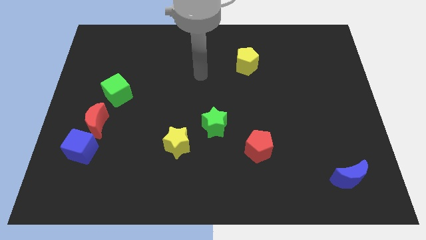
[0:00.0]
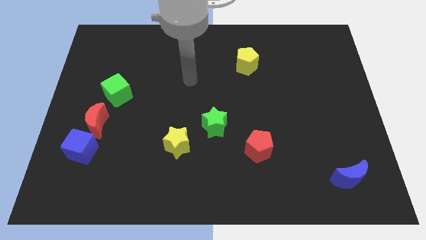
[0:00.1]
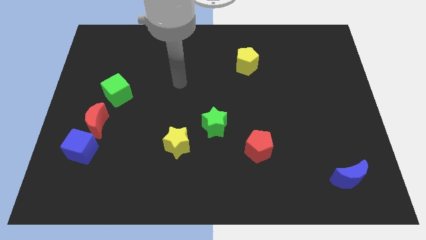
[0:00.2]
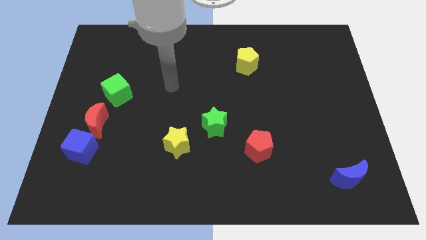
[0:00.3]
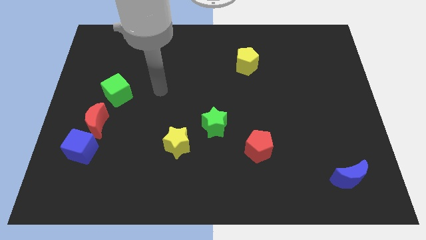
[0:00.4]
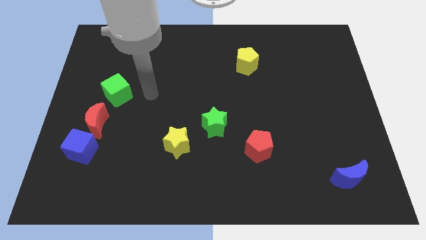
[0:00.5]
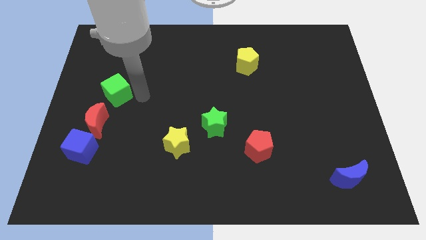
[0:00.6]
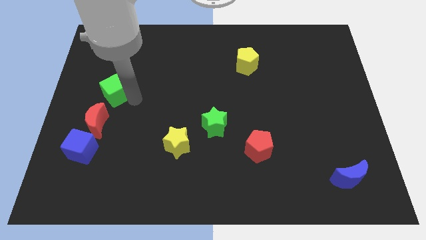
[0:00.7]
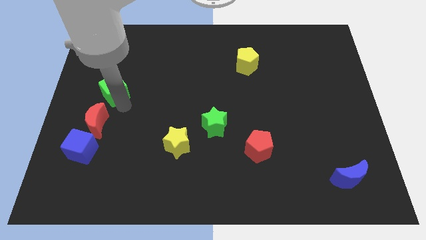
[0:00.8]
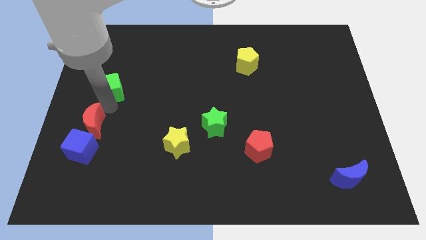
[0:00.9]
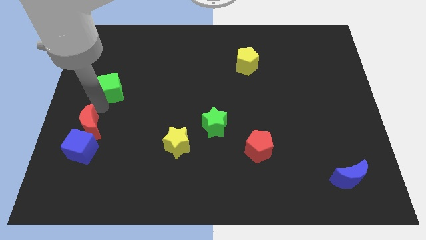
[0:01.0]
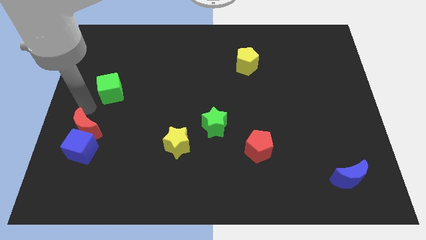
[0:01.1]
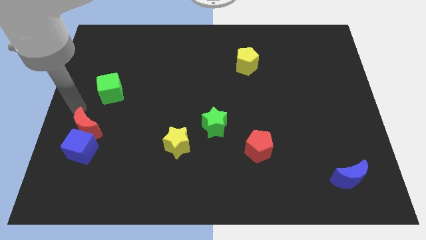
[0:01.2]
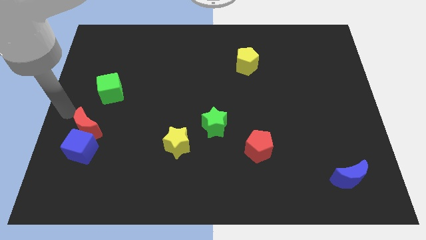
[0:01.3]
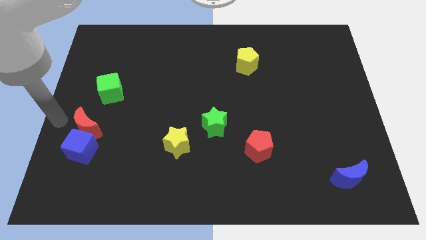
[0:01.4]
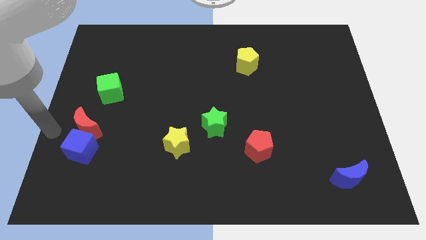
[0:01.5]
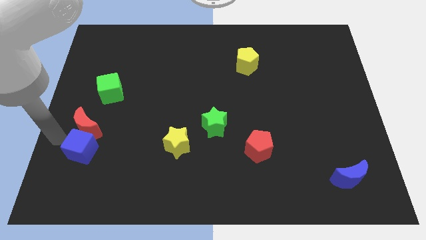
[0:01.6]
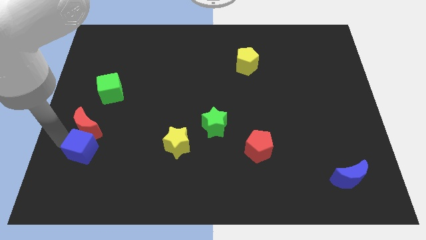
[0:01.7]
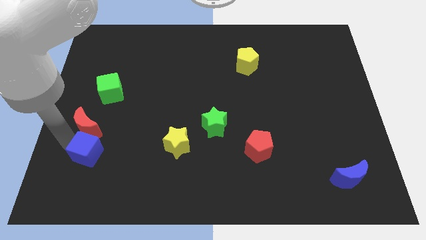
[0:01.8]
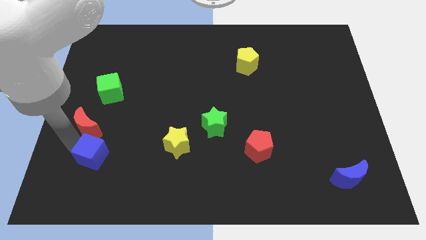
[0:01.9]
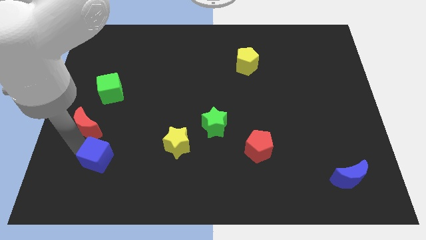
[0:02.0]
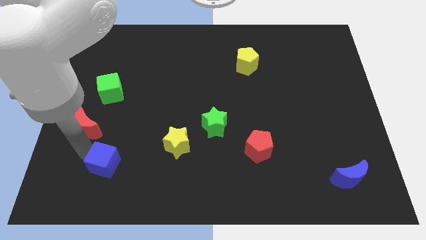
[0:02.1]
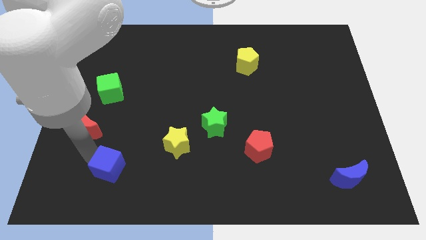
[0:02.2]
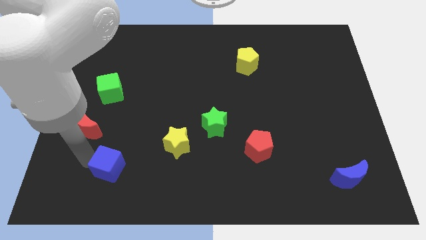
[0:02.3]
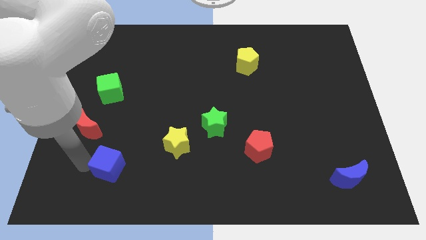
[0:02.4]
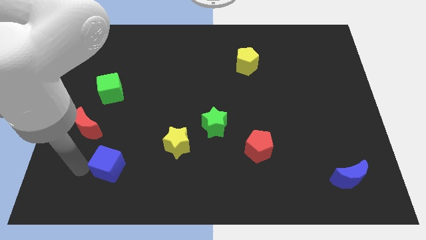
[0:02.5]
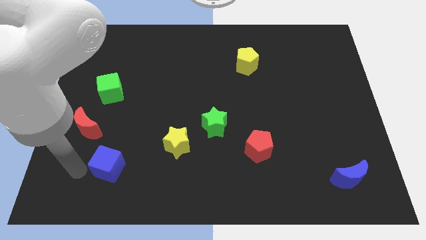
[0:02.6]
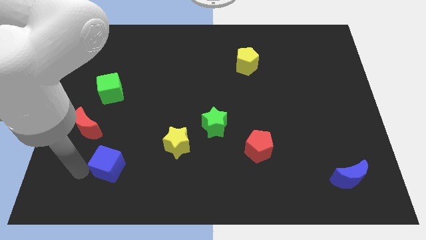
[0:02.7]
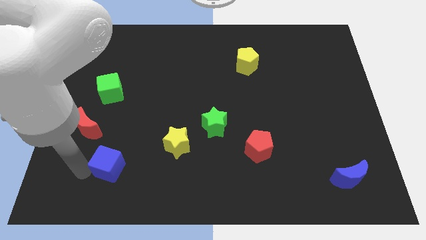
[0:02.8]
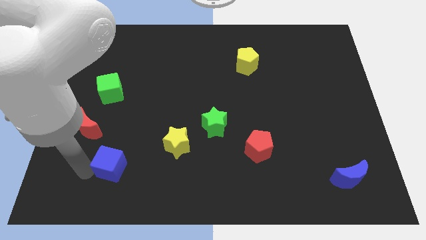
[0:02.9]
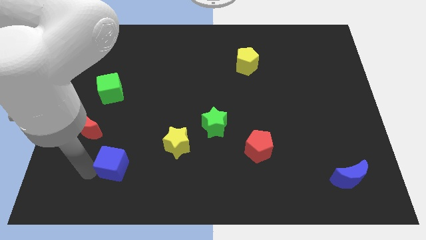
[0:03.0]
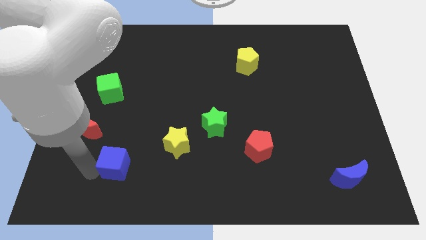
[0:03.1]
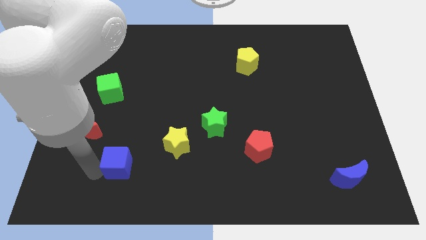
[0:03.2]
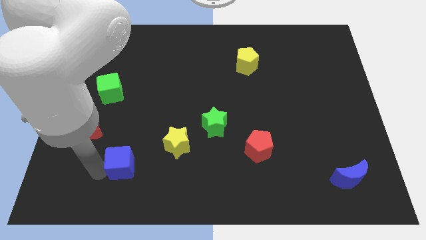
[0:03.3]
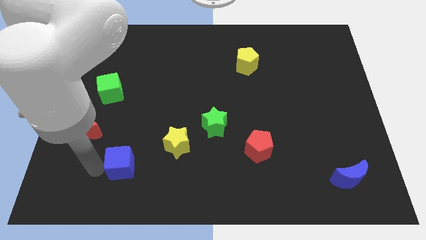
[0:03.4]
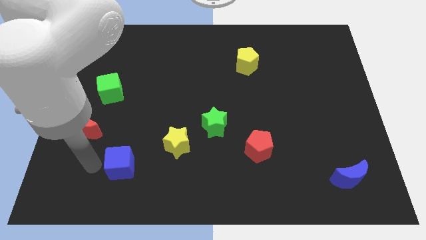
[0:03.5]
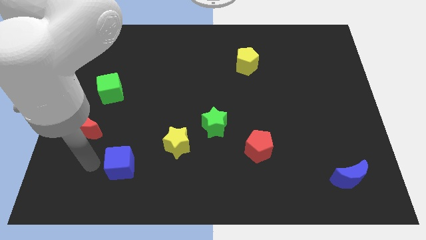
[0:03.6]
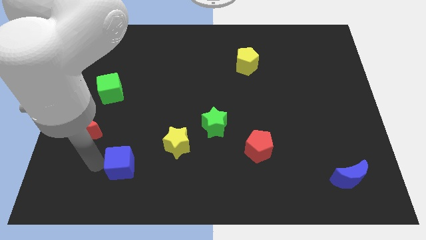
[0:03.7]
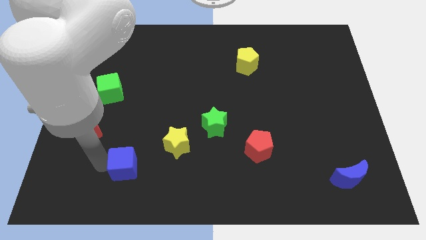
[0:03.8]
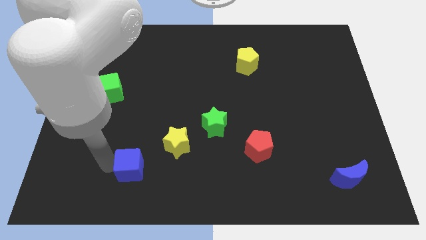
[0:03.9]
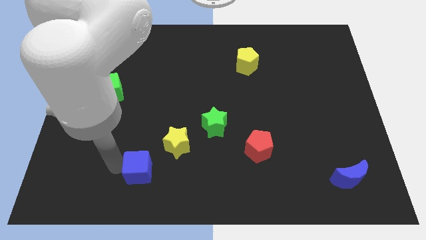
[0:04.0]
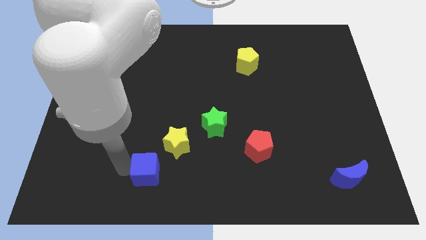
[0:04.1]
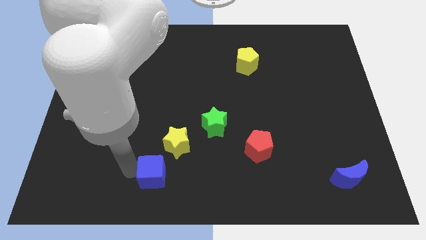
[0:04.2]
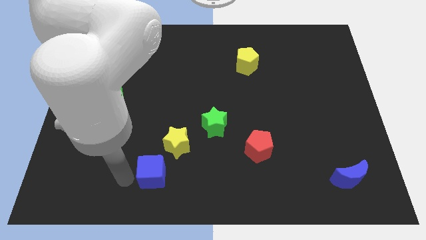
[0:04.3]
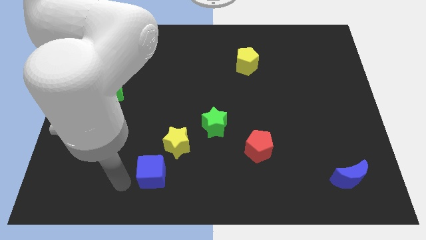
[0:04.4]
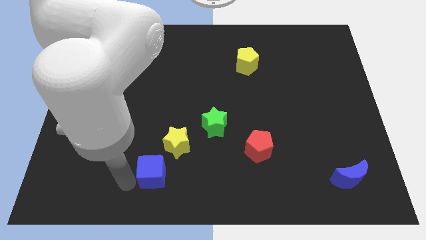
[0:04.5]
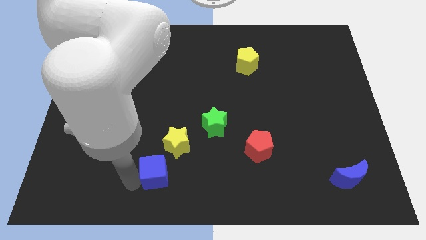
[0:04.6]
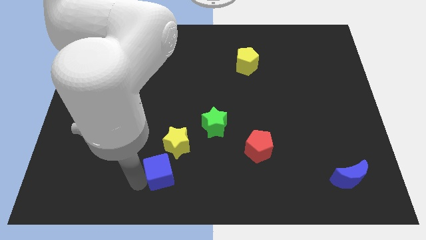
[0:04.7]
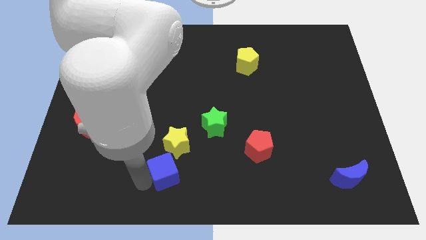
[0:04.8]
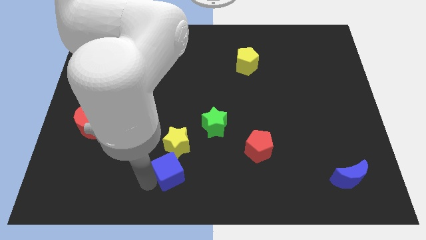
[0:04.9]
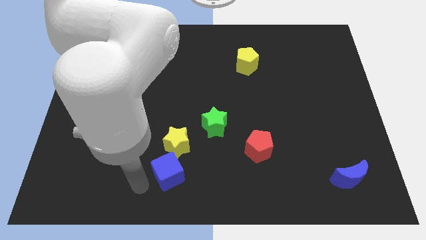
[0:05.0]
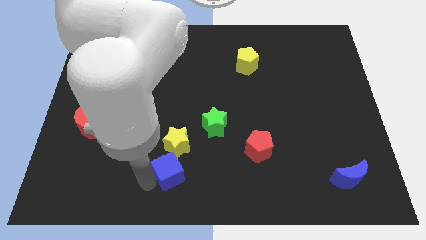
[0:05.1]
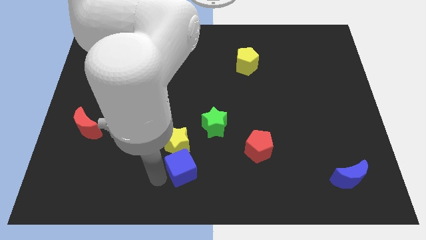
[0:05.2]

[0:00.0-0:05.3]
push the blue cube right

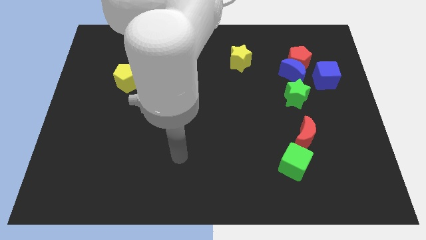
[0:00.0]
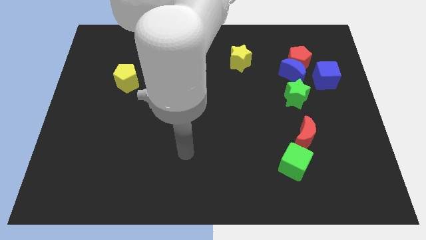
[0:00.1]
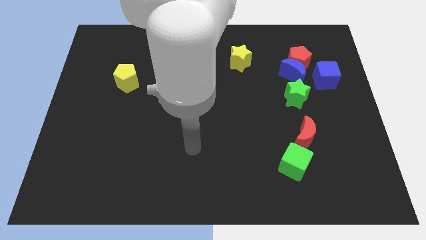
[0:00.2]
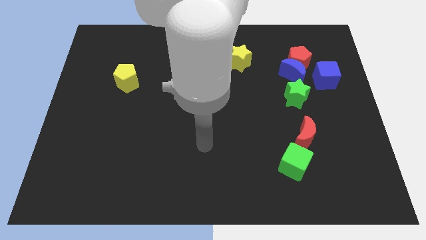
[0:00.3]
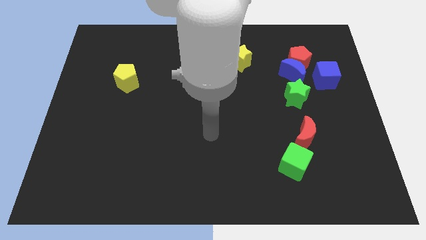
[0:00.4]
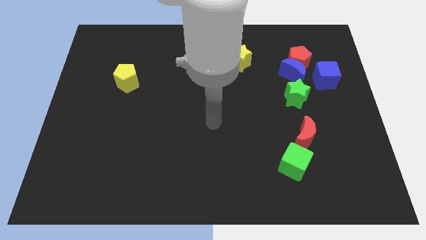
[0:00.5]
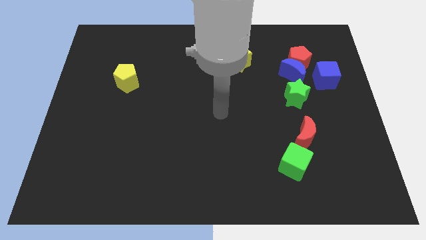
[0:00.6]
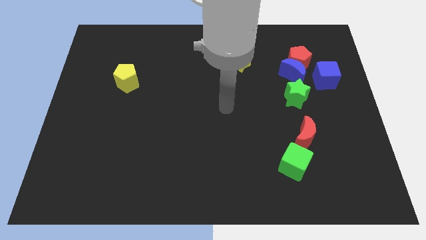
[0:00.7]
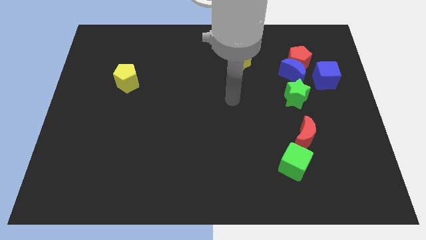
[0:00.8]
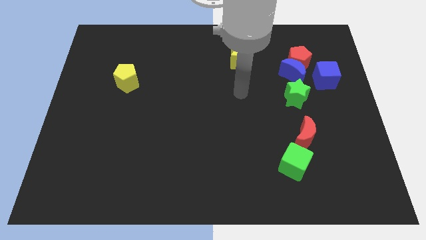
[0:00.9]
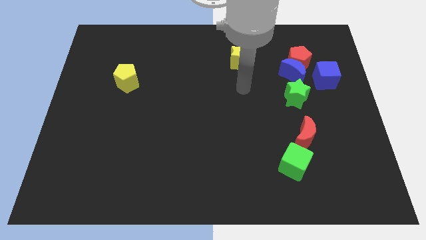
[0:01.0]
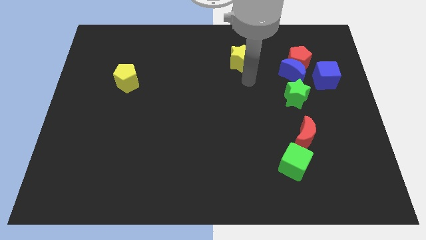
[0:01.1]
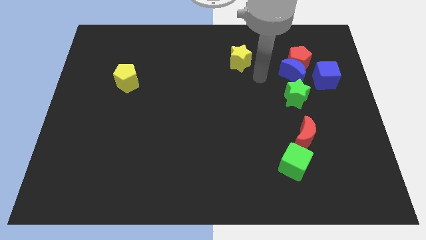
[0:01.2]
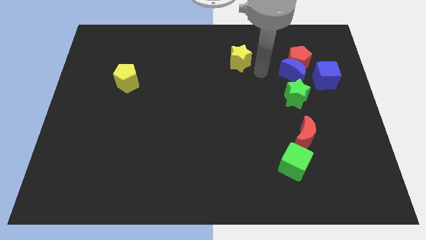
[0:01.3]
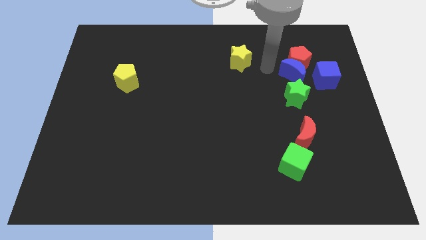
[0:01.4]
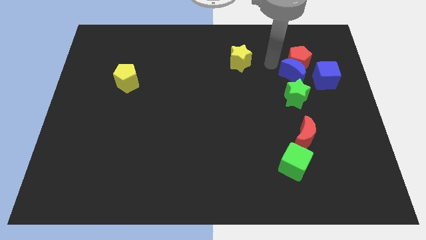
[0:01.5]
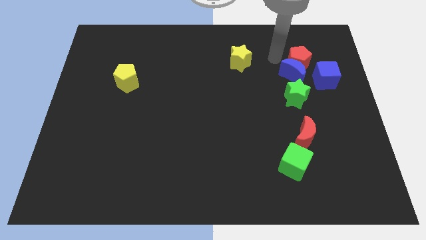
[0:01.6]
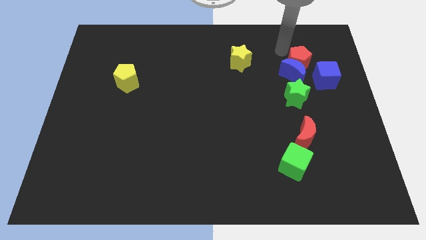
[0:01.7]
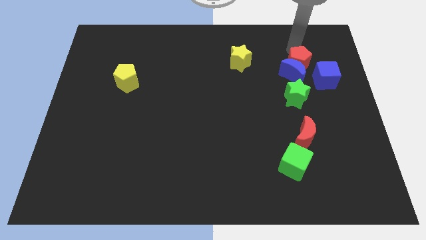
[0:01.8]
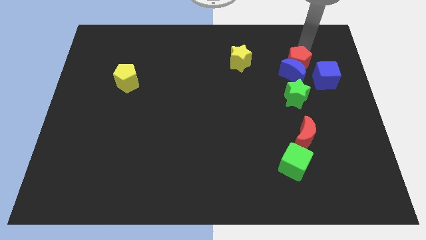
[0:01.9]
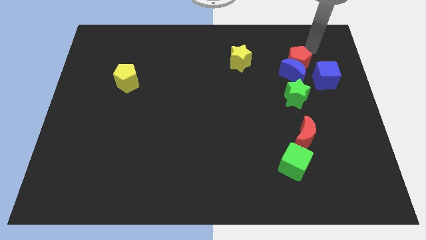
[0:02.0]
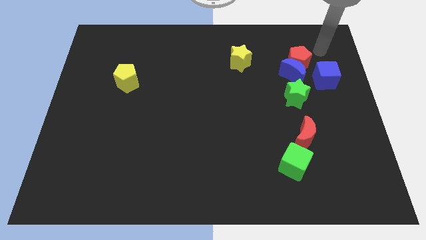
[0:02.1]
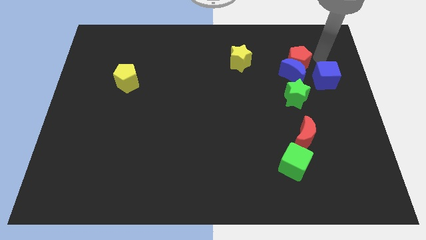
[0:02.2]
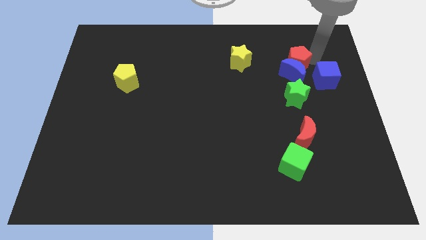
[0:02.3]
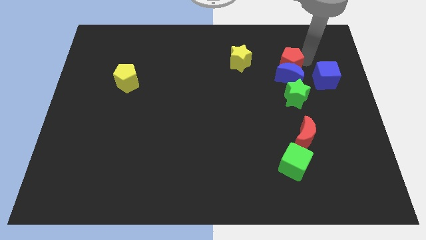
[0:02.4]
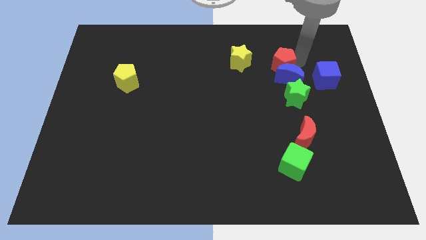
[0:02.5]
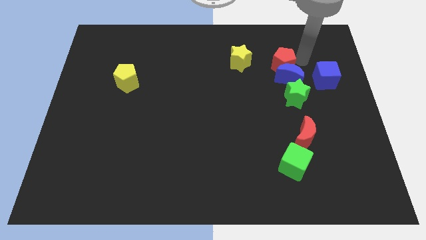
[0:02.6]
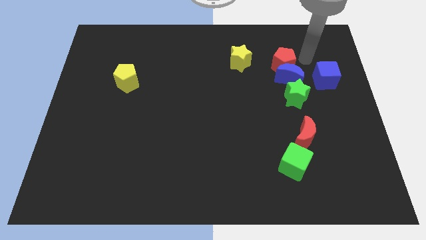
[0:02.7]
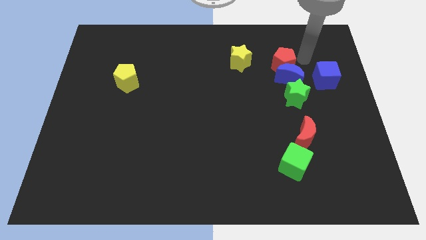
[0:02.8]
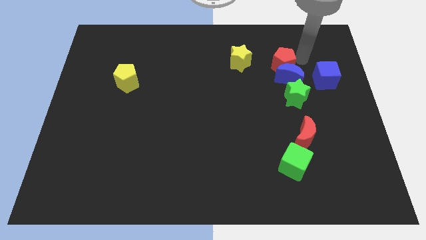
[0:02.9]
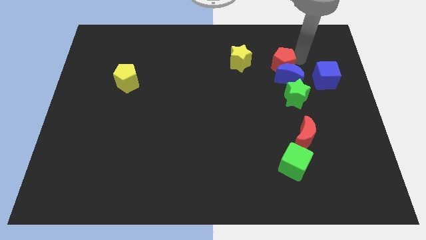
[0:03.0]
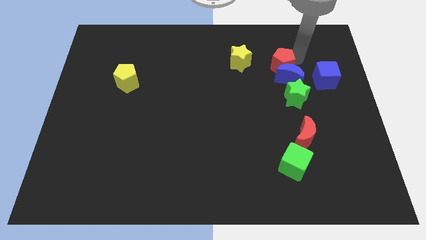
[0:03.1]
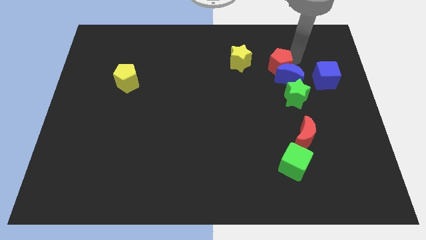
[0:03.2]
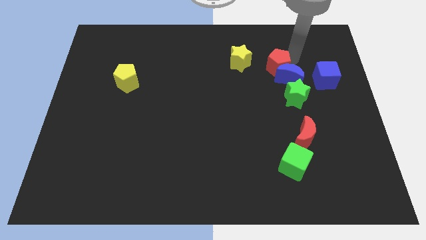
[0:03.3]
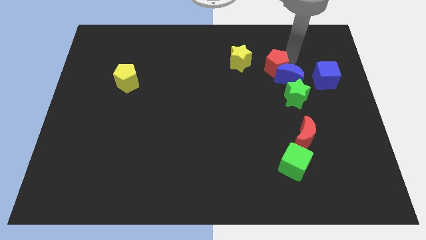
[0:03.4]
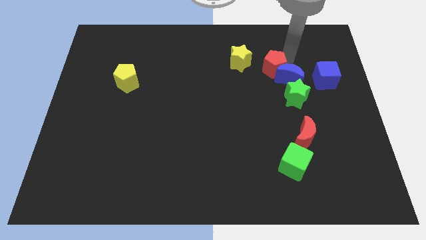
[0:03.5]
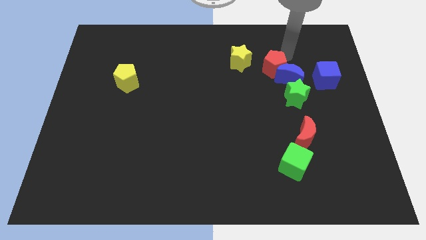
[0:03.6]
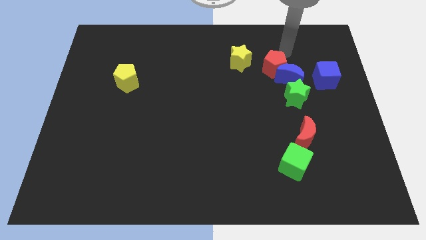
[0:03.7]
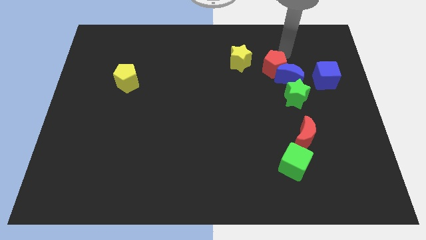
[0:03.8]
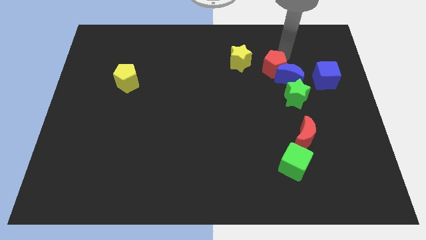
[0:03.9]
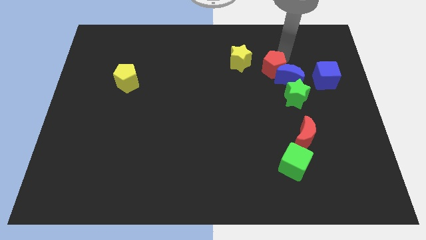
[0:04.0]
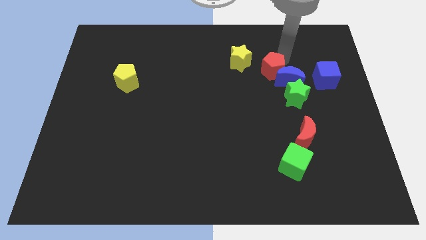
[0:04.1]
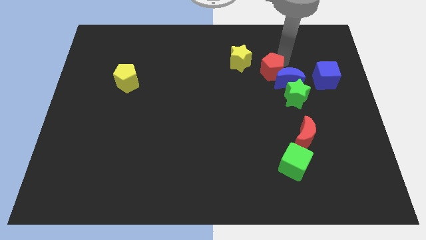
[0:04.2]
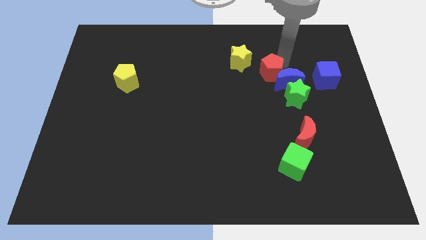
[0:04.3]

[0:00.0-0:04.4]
slightly move the red pentagon diagonally downwards and left
